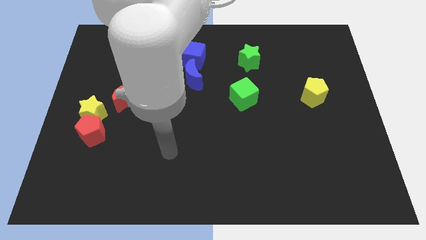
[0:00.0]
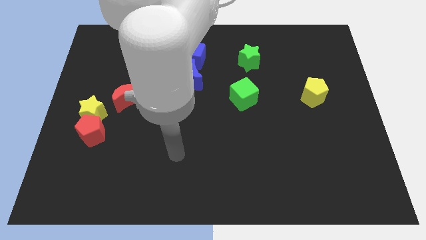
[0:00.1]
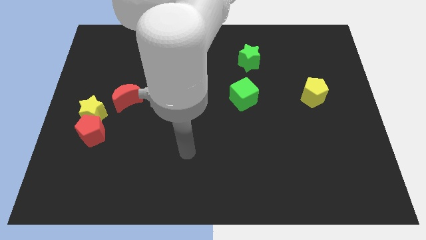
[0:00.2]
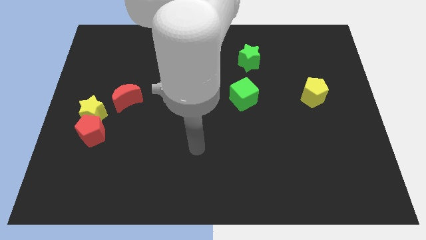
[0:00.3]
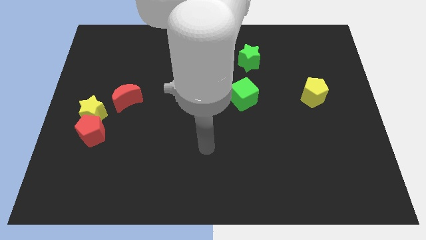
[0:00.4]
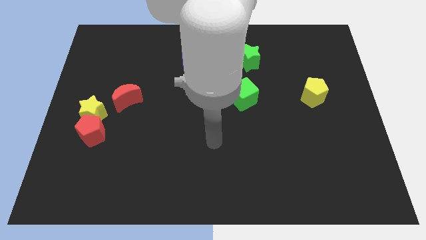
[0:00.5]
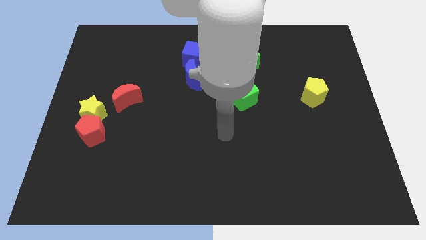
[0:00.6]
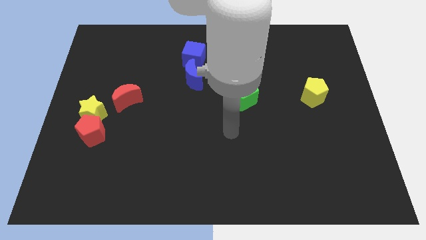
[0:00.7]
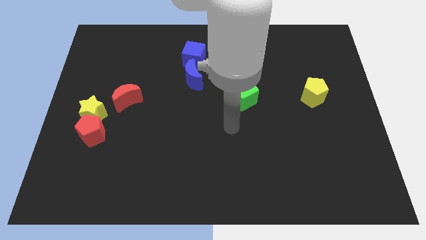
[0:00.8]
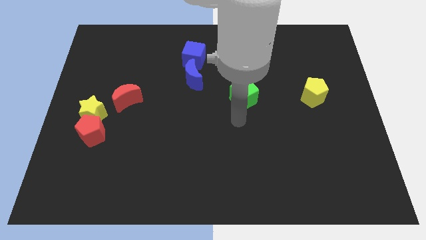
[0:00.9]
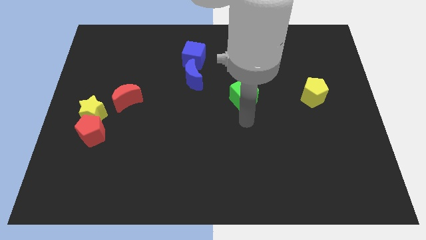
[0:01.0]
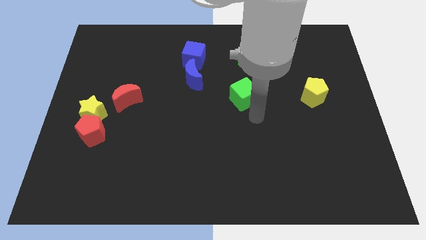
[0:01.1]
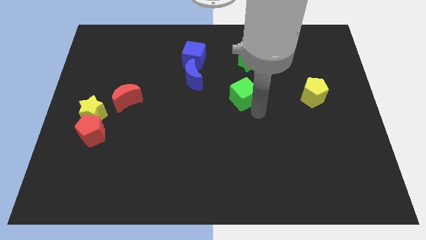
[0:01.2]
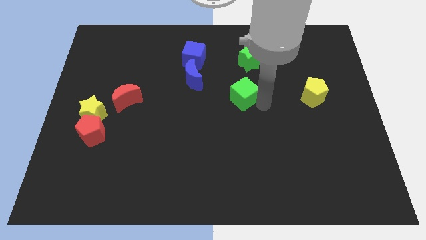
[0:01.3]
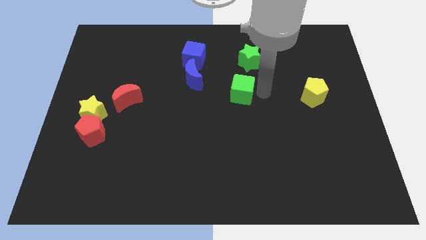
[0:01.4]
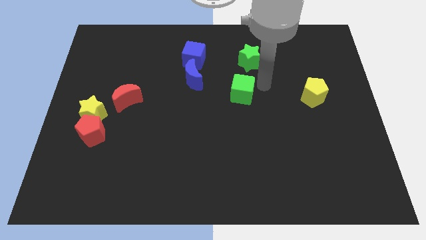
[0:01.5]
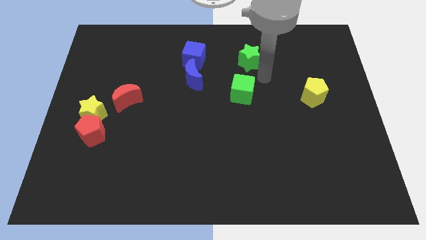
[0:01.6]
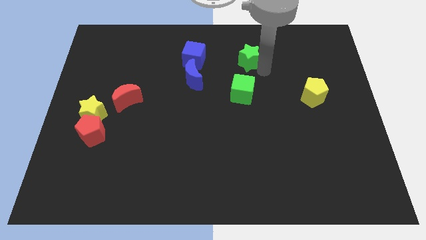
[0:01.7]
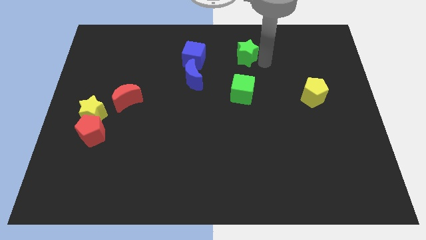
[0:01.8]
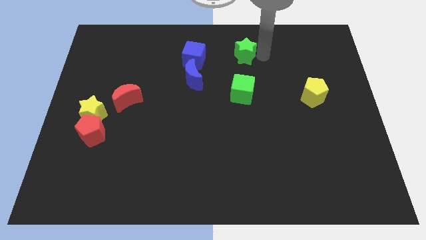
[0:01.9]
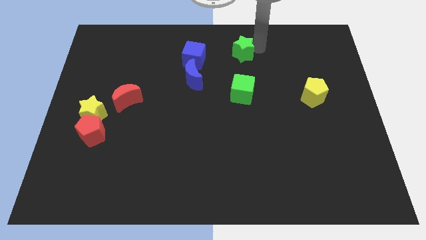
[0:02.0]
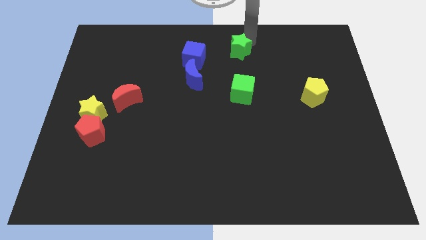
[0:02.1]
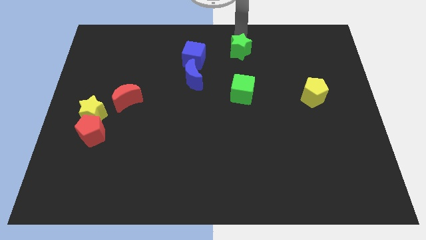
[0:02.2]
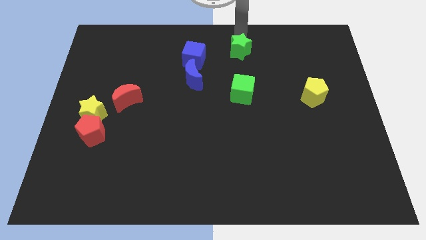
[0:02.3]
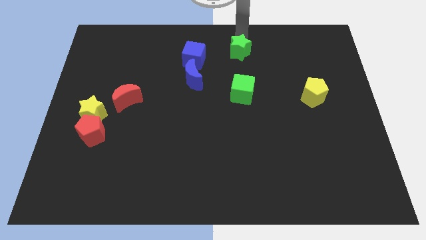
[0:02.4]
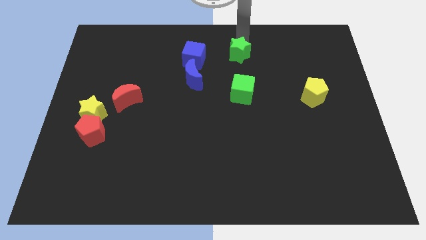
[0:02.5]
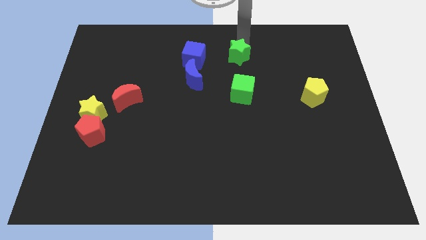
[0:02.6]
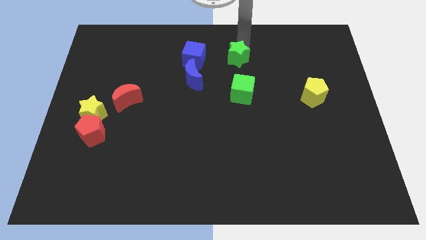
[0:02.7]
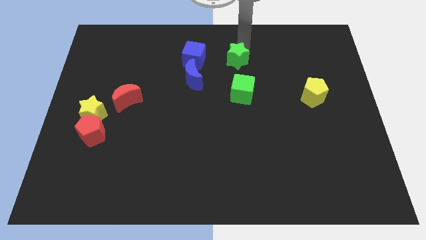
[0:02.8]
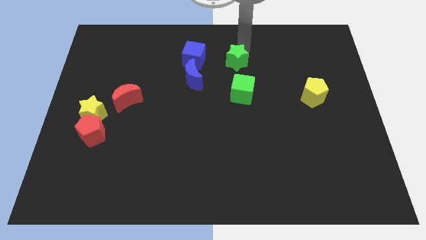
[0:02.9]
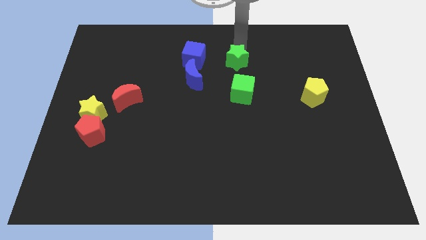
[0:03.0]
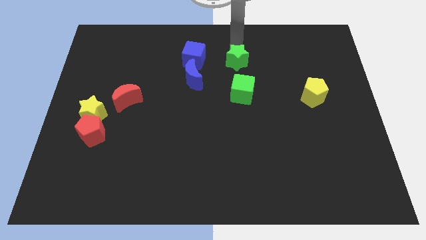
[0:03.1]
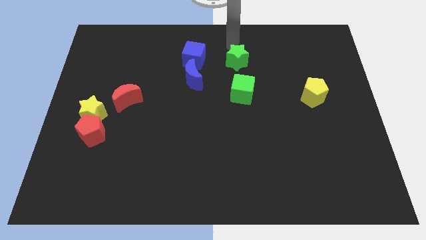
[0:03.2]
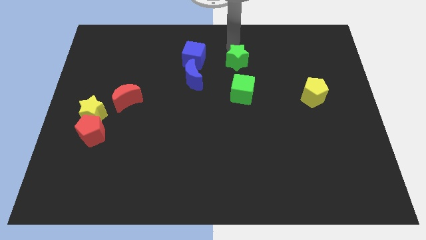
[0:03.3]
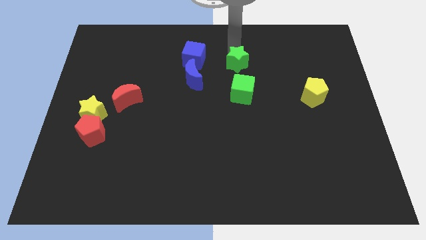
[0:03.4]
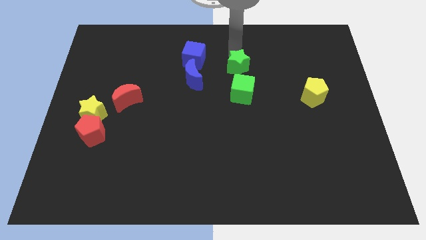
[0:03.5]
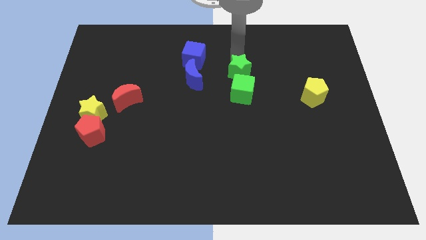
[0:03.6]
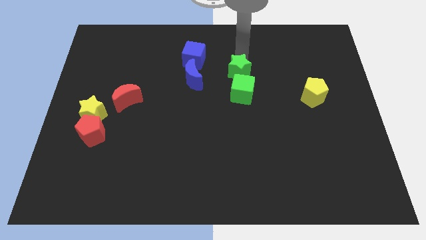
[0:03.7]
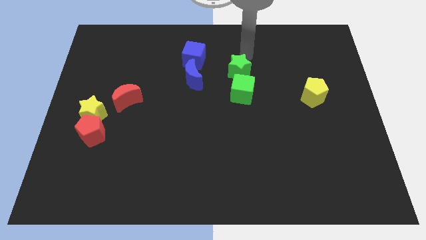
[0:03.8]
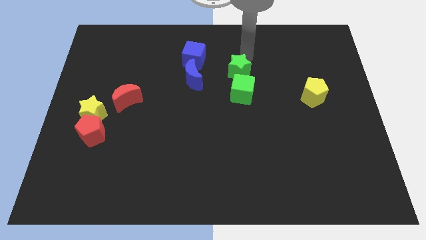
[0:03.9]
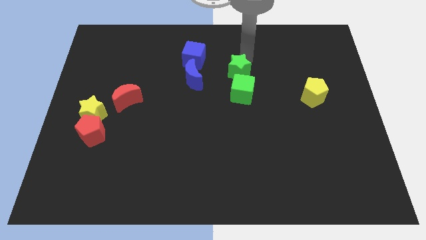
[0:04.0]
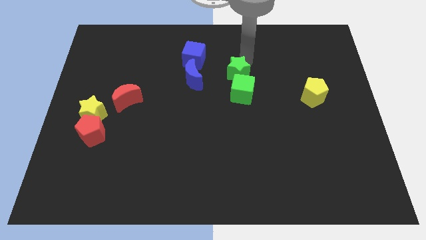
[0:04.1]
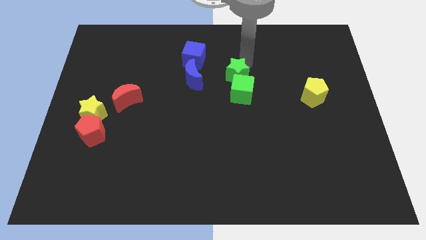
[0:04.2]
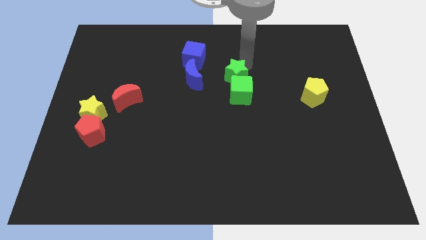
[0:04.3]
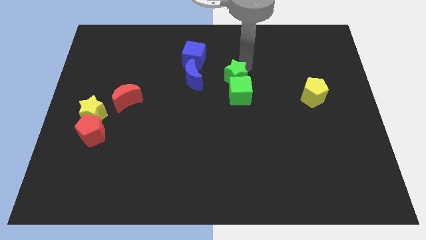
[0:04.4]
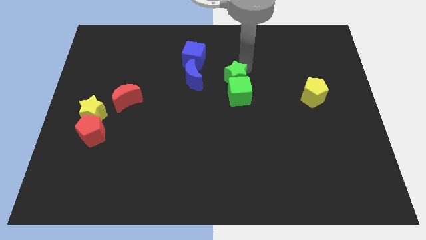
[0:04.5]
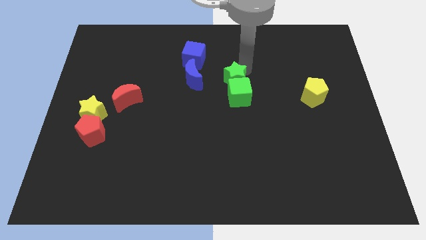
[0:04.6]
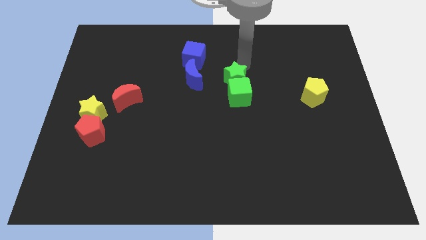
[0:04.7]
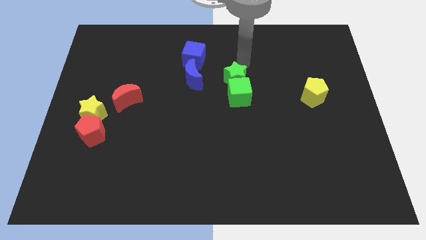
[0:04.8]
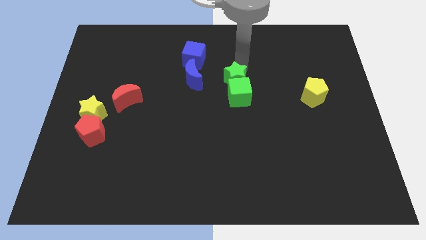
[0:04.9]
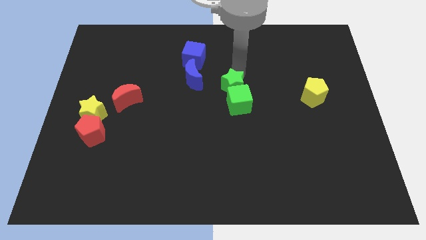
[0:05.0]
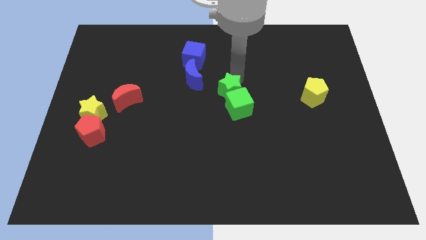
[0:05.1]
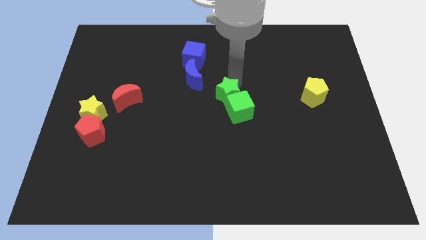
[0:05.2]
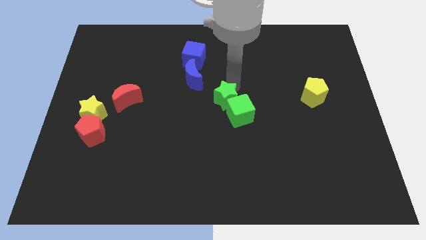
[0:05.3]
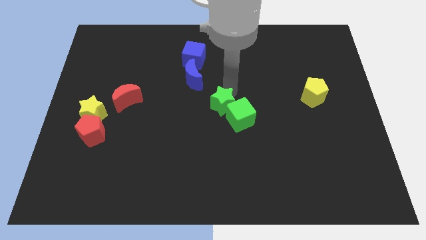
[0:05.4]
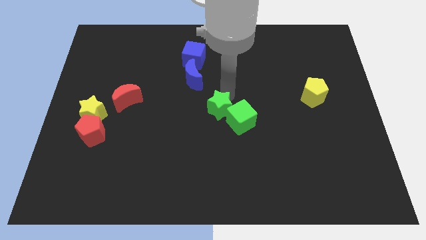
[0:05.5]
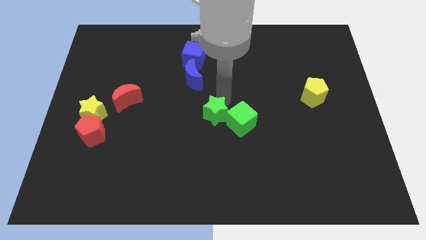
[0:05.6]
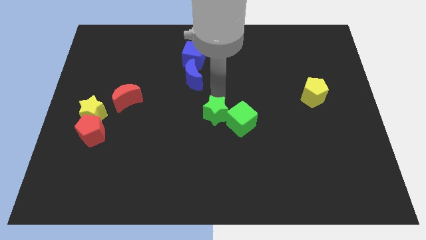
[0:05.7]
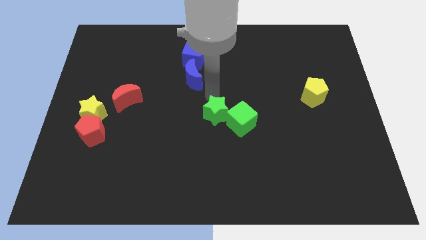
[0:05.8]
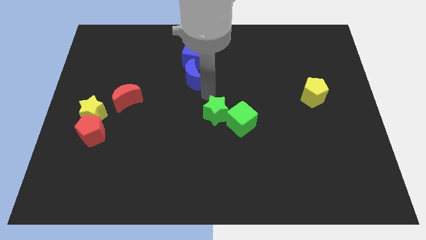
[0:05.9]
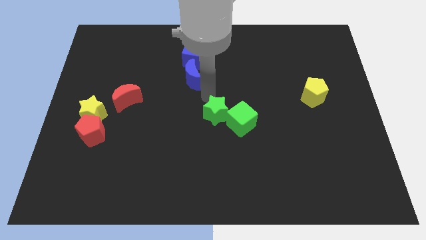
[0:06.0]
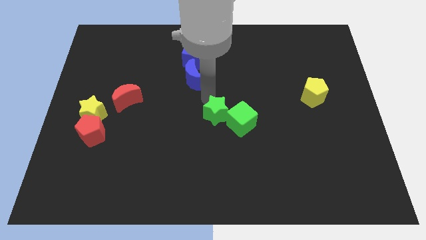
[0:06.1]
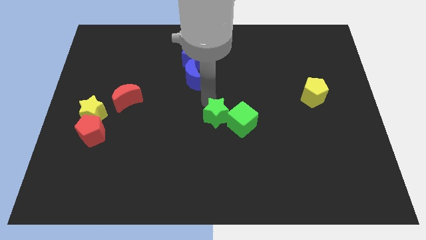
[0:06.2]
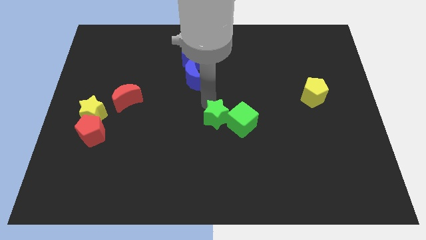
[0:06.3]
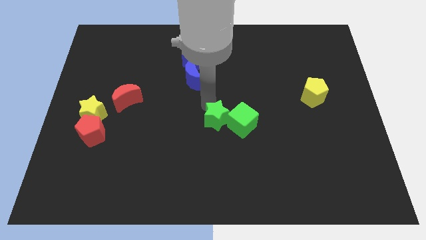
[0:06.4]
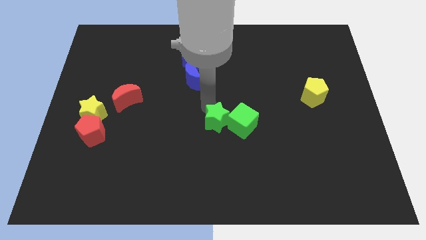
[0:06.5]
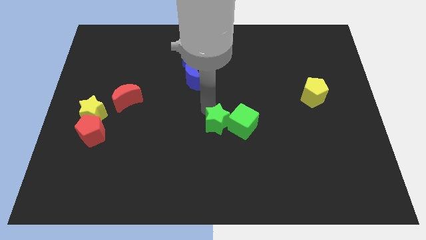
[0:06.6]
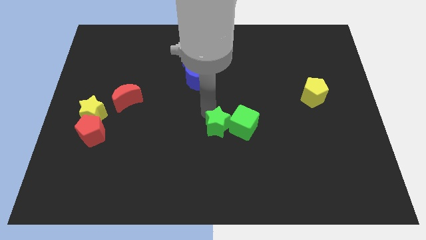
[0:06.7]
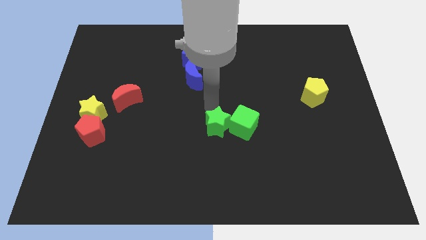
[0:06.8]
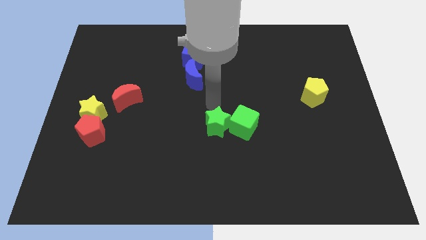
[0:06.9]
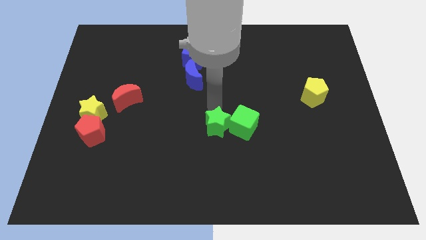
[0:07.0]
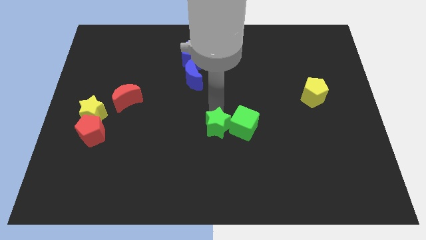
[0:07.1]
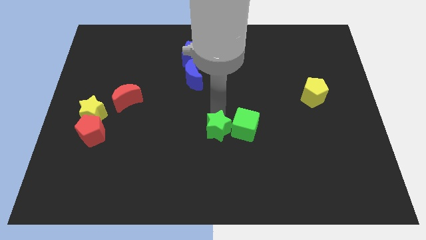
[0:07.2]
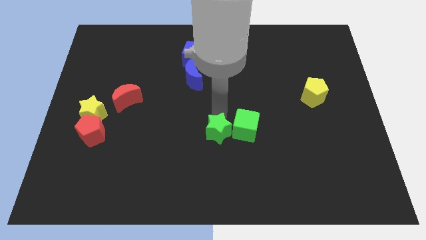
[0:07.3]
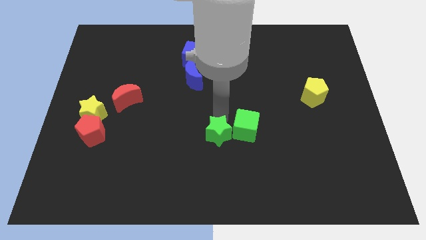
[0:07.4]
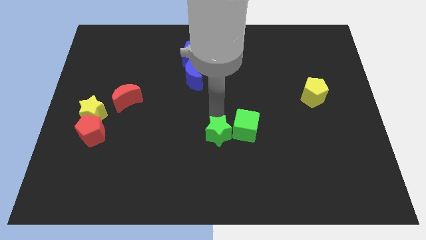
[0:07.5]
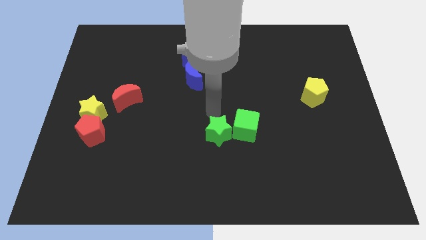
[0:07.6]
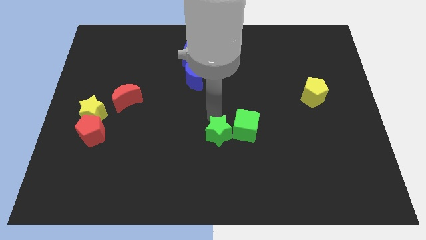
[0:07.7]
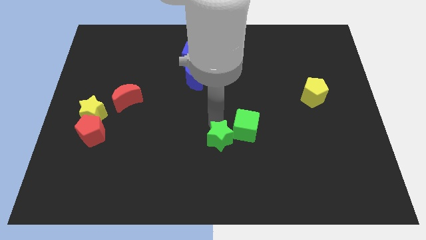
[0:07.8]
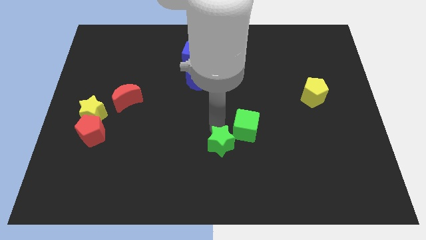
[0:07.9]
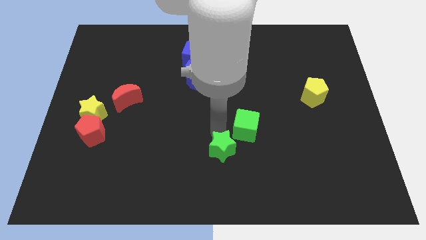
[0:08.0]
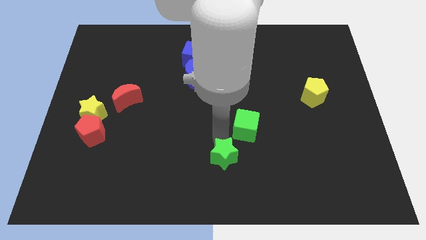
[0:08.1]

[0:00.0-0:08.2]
push the green star to the bottom side
